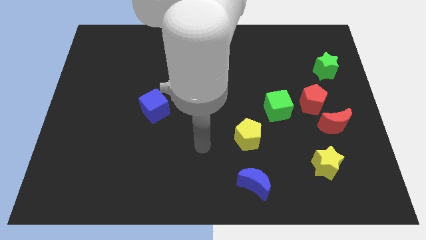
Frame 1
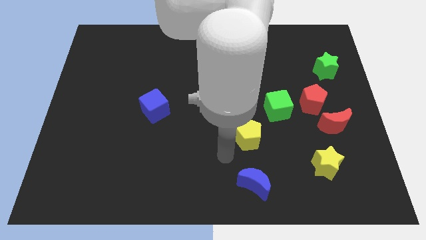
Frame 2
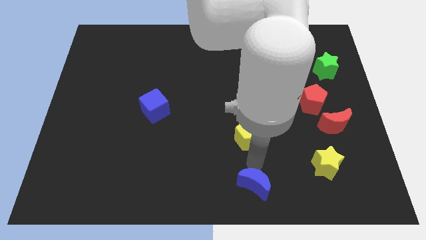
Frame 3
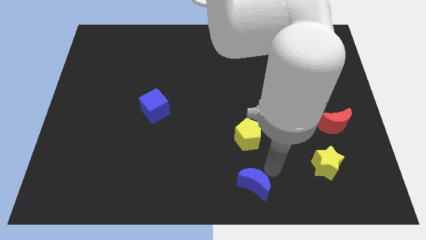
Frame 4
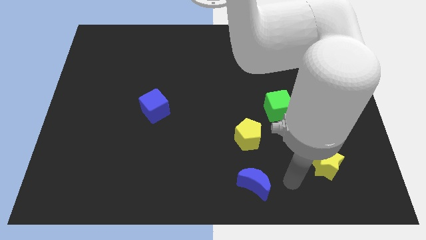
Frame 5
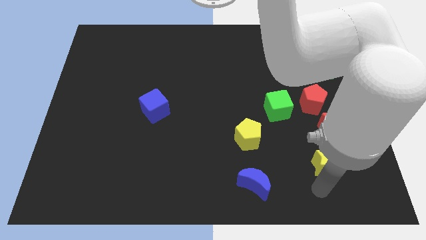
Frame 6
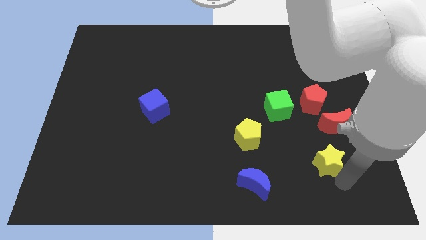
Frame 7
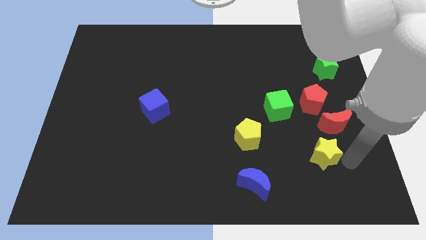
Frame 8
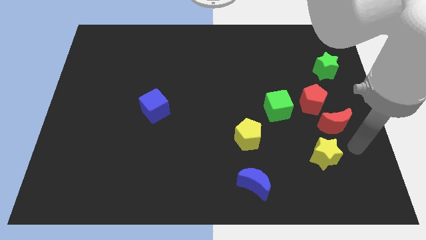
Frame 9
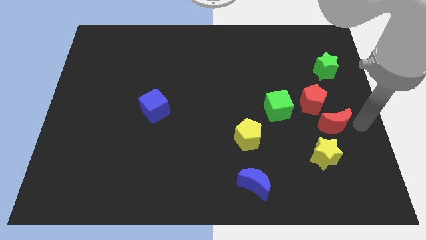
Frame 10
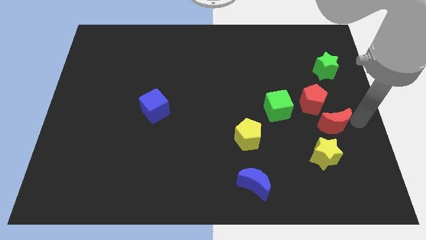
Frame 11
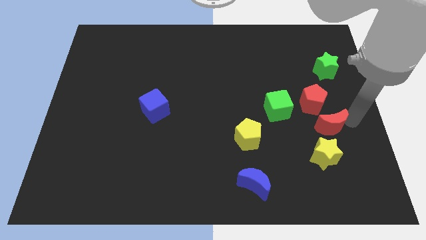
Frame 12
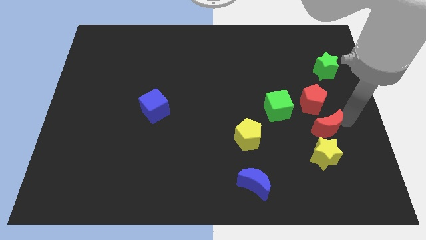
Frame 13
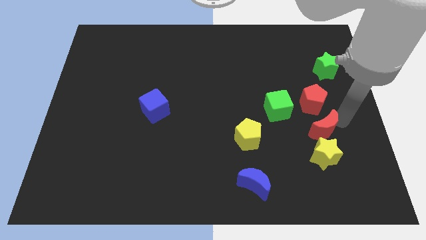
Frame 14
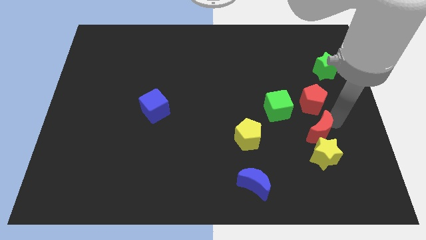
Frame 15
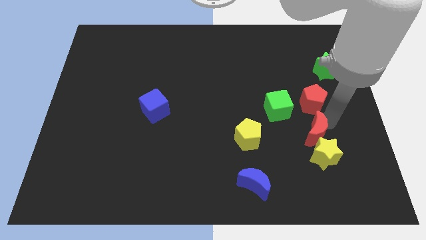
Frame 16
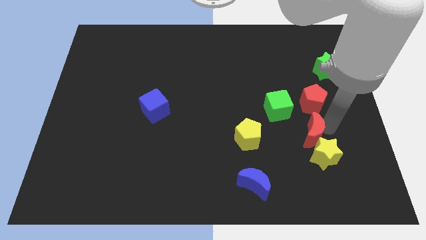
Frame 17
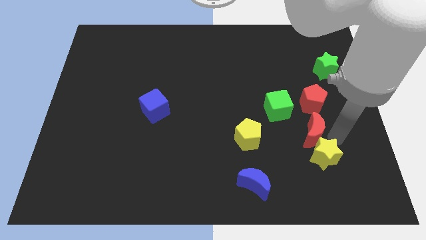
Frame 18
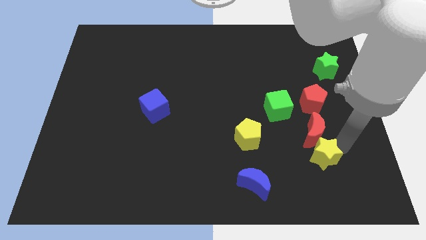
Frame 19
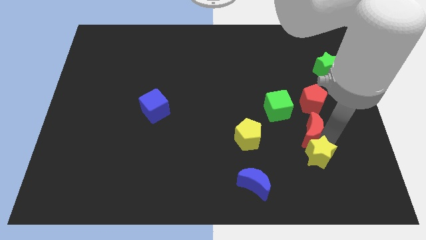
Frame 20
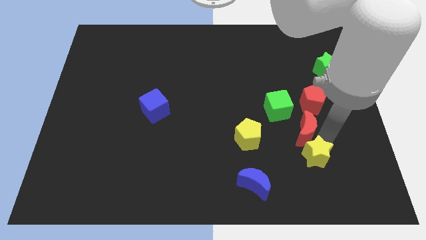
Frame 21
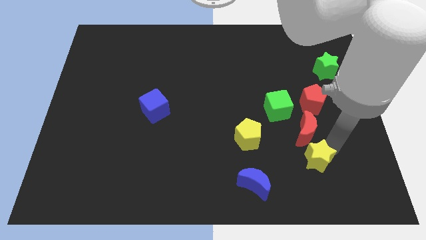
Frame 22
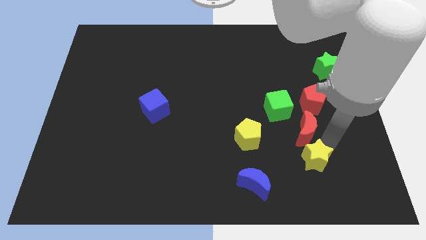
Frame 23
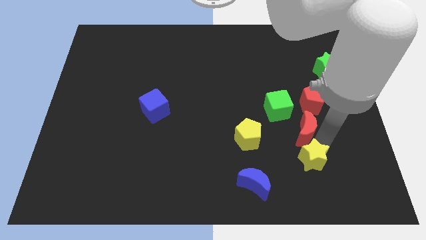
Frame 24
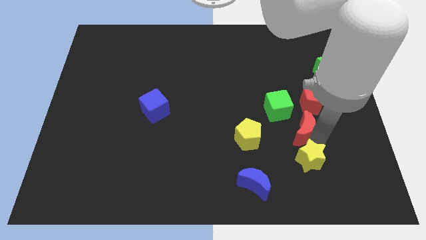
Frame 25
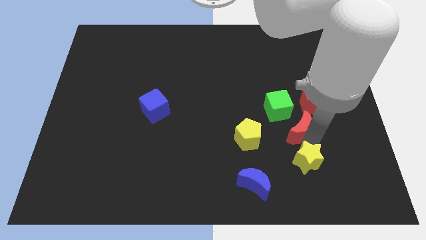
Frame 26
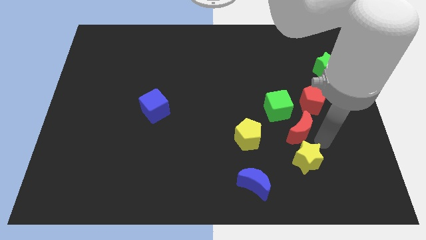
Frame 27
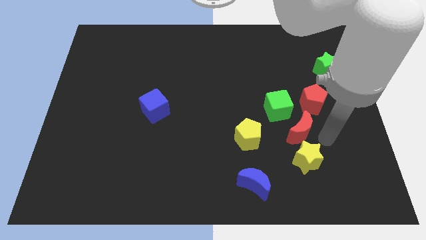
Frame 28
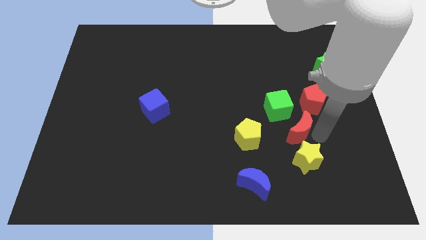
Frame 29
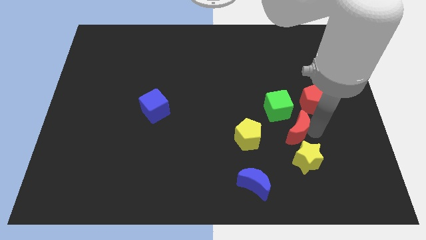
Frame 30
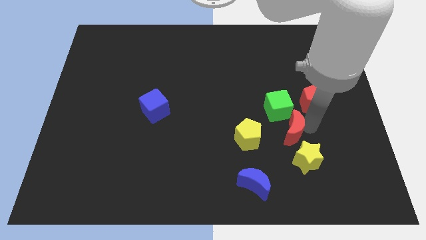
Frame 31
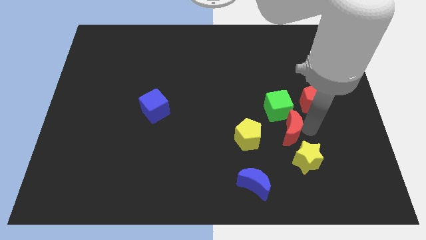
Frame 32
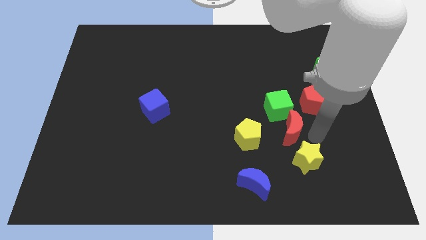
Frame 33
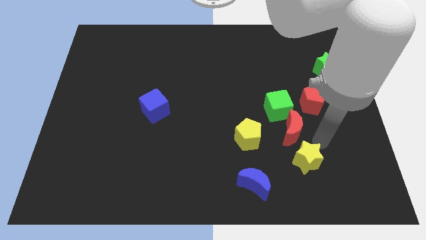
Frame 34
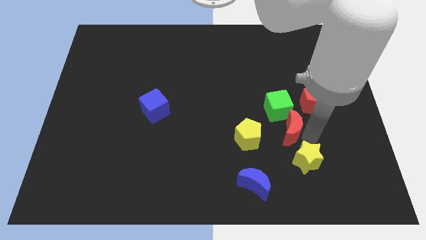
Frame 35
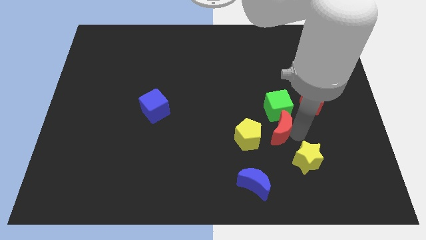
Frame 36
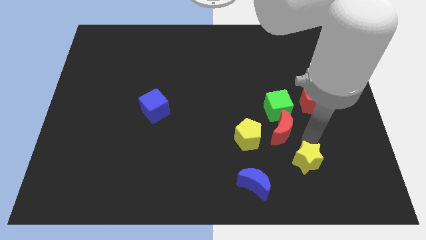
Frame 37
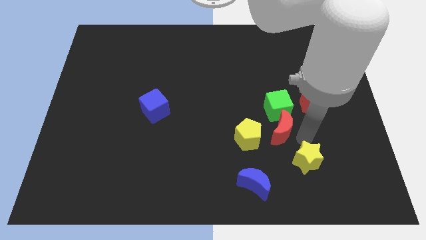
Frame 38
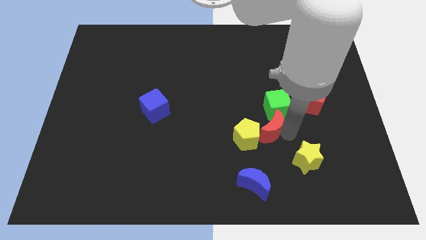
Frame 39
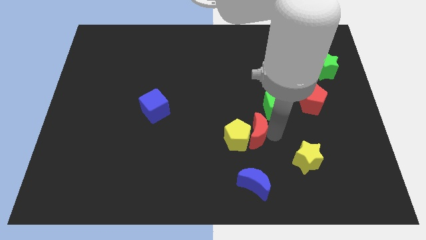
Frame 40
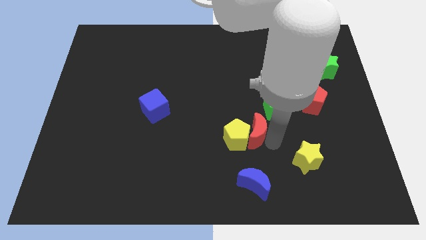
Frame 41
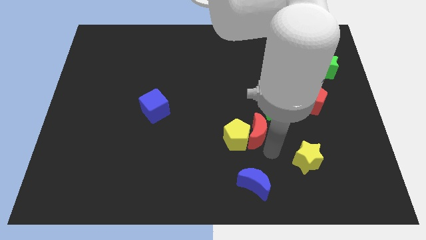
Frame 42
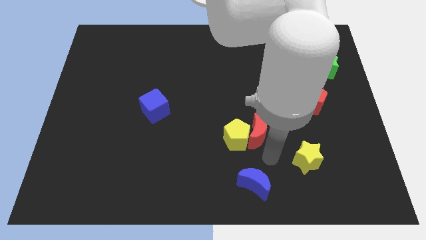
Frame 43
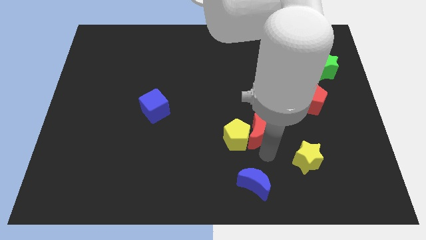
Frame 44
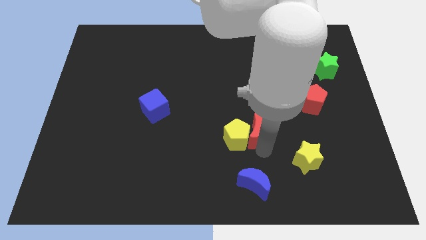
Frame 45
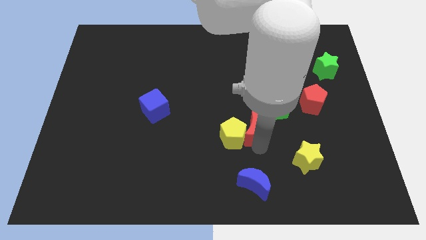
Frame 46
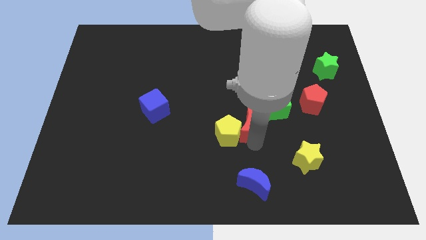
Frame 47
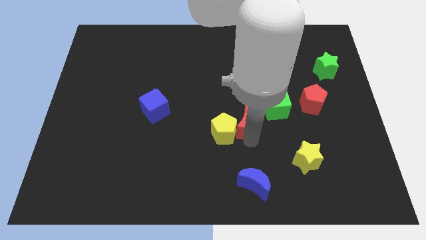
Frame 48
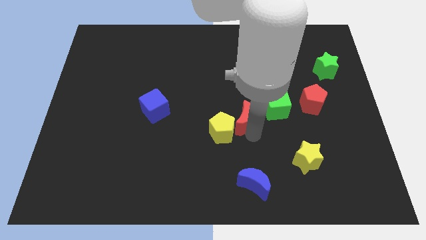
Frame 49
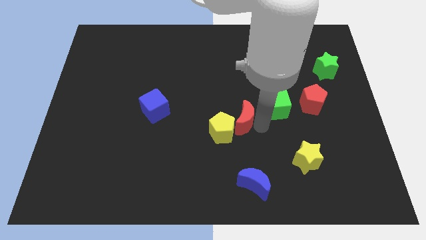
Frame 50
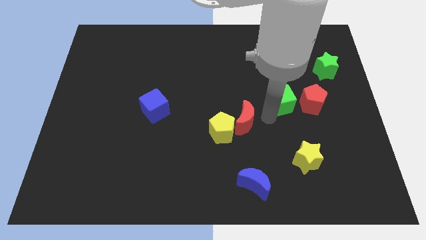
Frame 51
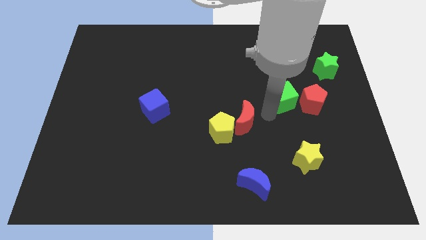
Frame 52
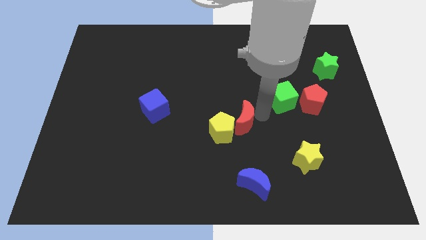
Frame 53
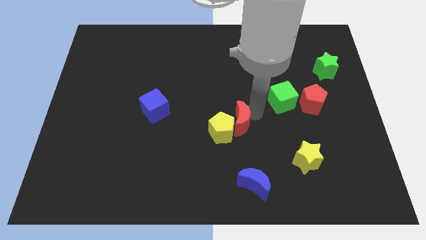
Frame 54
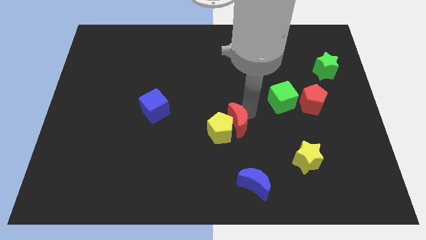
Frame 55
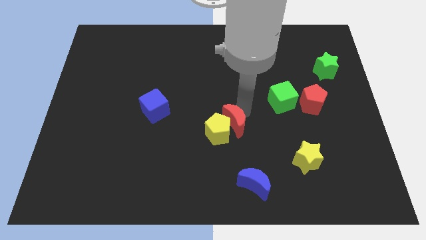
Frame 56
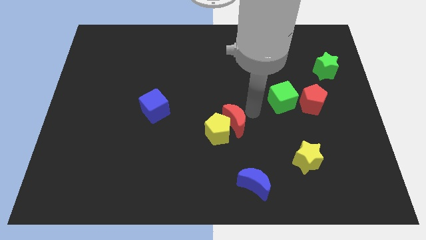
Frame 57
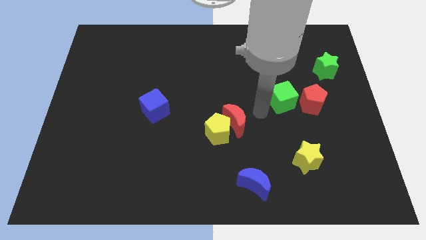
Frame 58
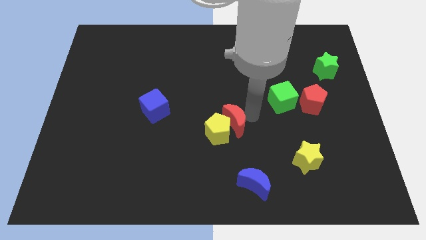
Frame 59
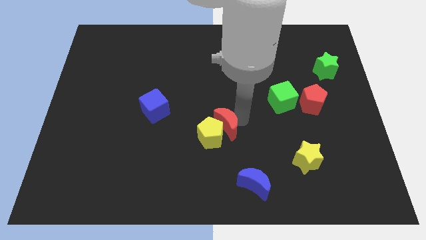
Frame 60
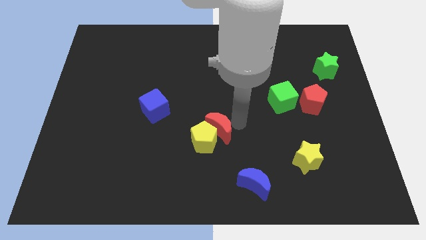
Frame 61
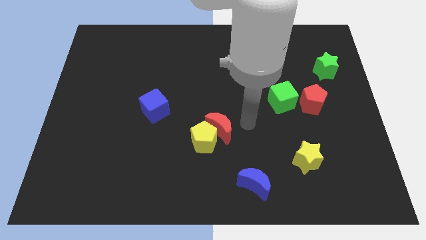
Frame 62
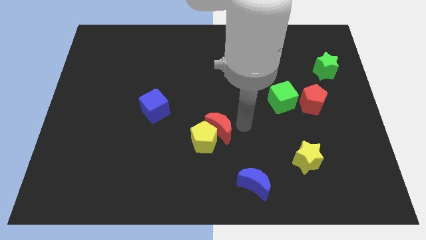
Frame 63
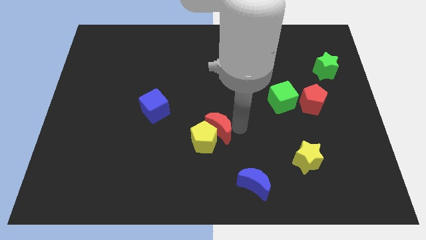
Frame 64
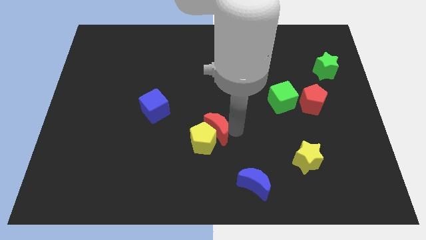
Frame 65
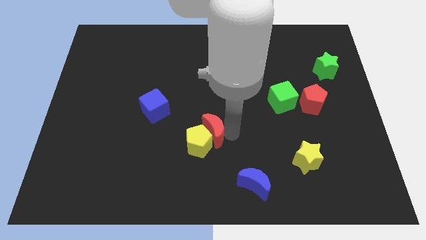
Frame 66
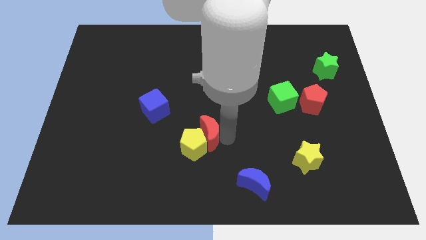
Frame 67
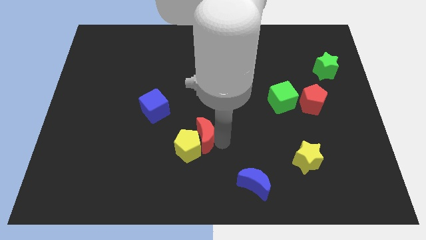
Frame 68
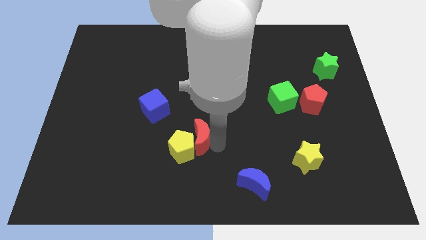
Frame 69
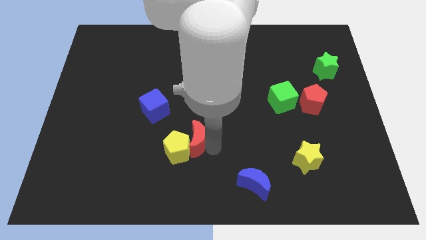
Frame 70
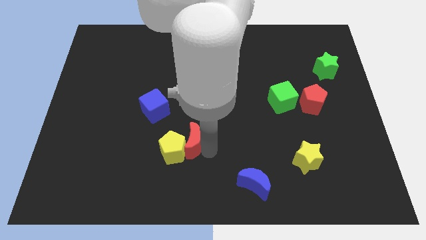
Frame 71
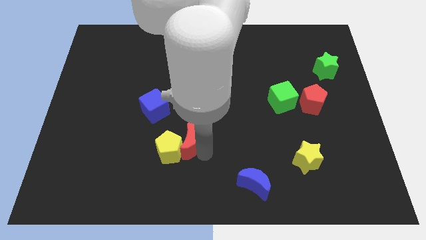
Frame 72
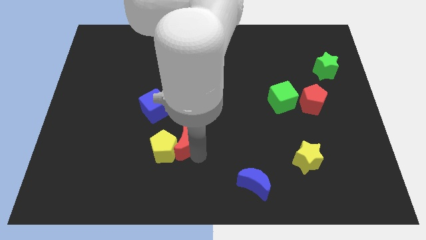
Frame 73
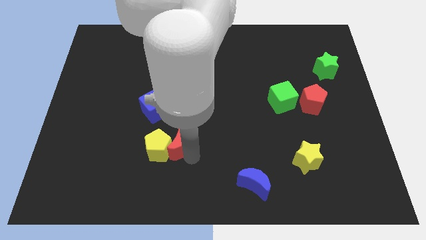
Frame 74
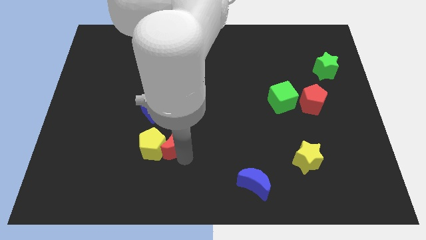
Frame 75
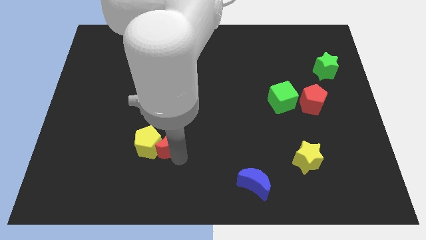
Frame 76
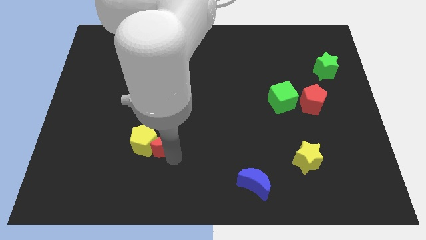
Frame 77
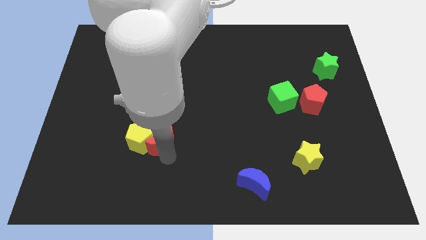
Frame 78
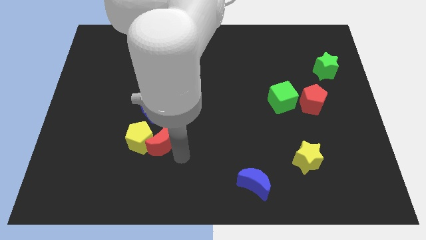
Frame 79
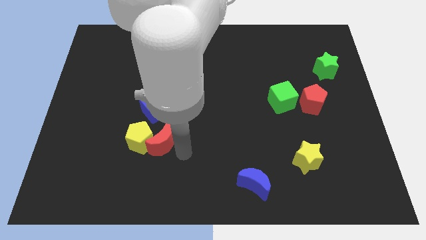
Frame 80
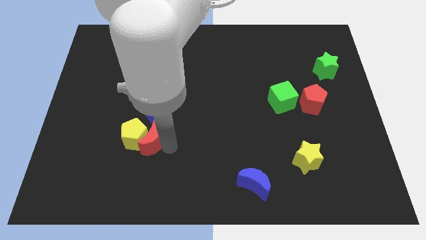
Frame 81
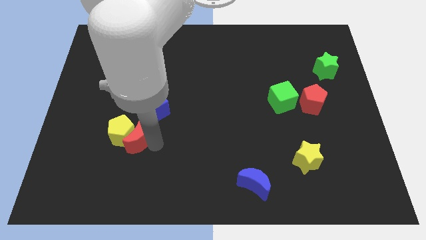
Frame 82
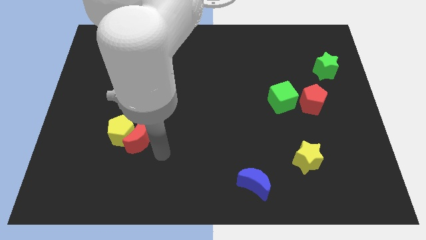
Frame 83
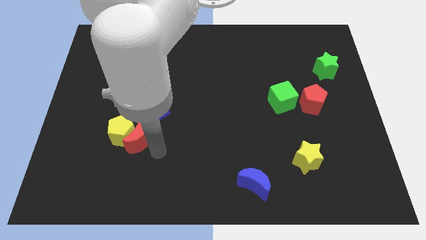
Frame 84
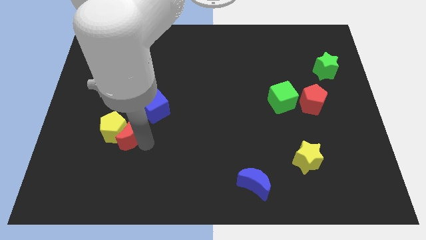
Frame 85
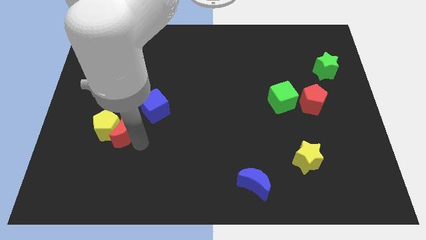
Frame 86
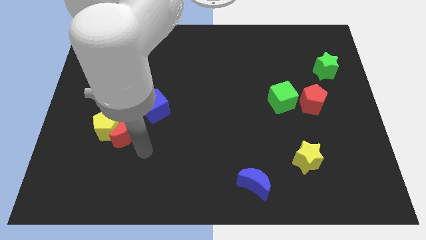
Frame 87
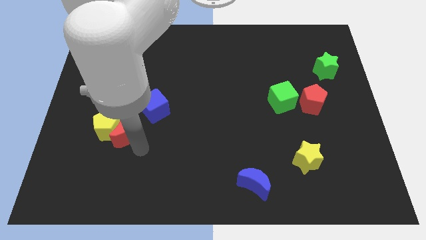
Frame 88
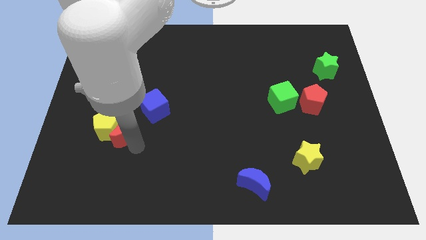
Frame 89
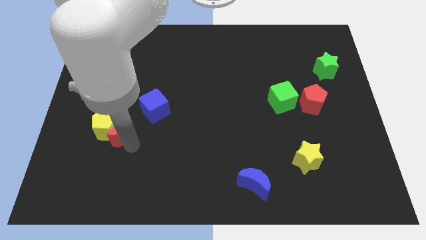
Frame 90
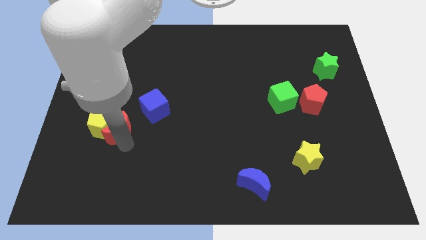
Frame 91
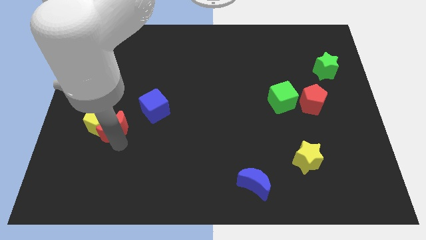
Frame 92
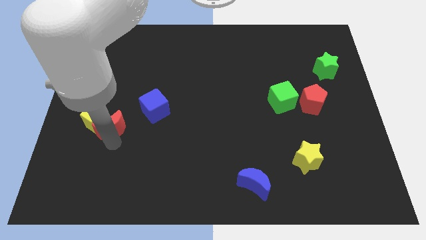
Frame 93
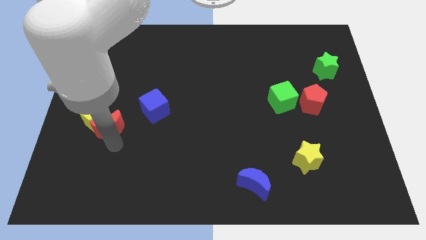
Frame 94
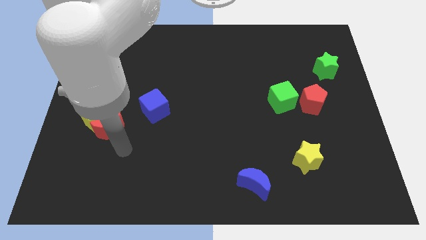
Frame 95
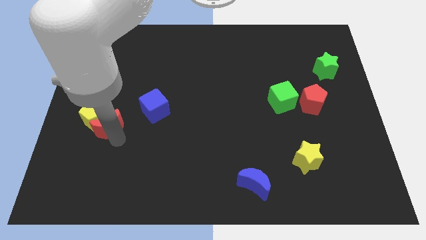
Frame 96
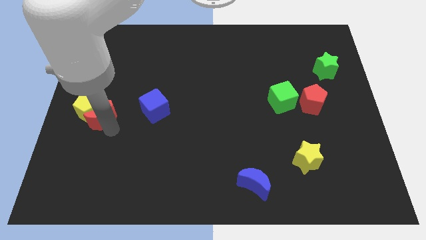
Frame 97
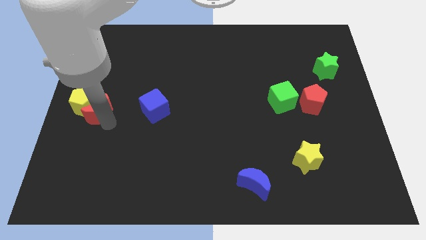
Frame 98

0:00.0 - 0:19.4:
move the red moon to the left side
